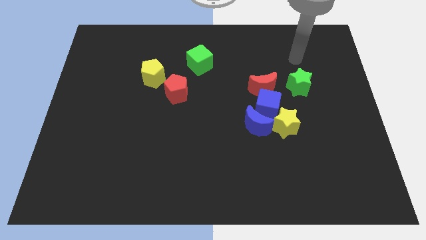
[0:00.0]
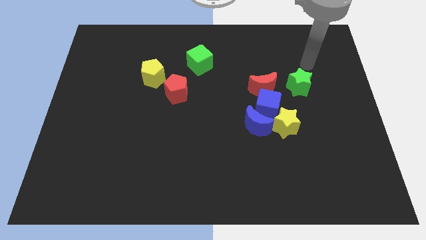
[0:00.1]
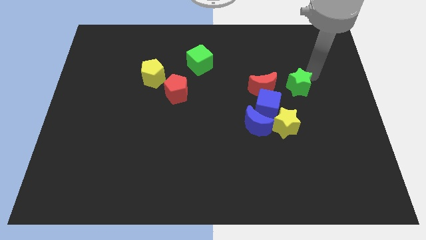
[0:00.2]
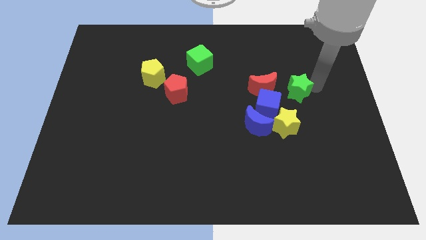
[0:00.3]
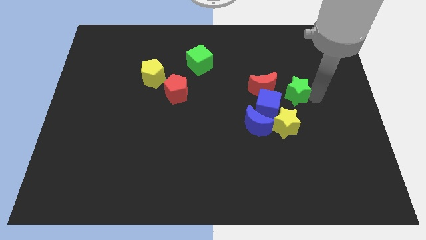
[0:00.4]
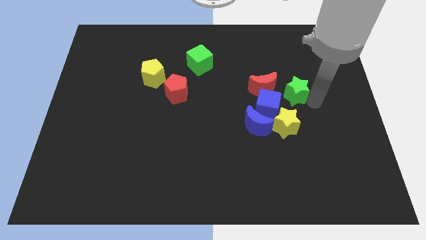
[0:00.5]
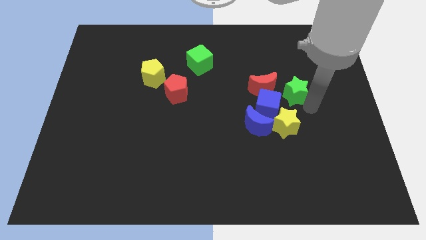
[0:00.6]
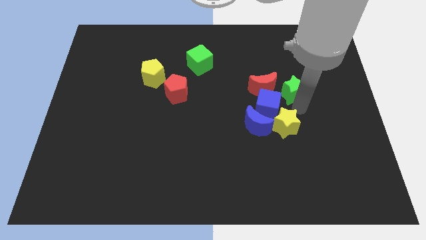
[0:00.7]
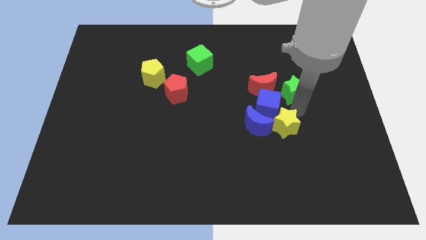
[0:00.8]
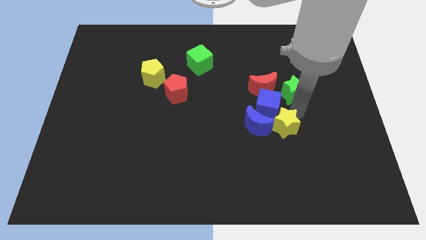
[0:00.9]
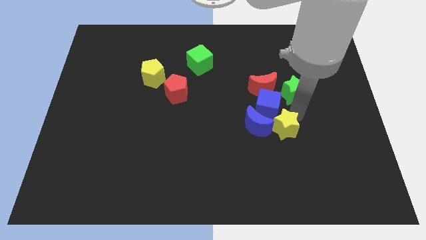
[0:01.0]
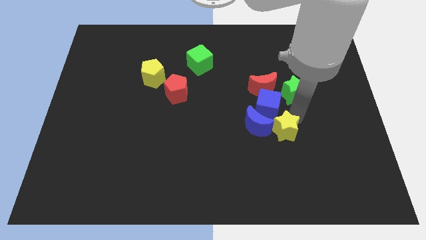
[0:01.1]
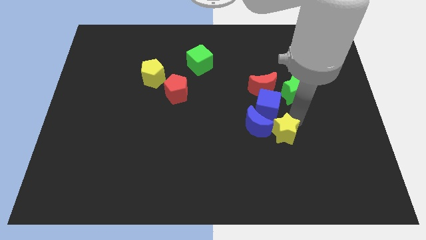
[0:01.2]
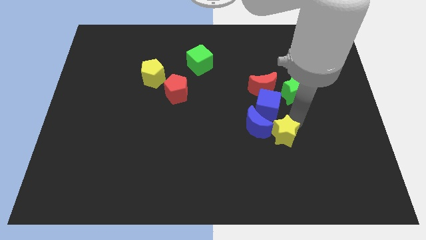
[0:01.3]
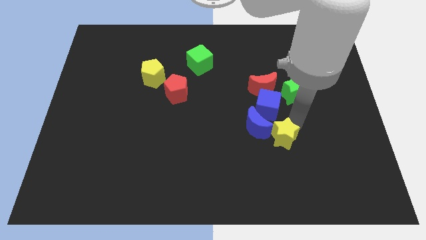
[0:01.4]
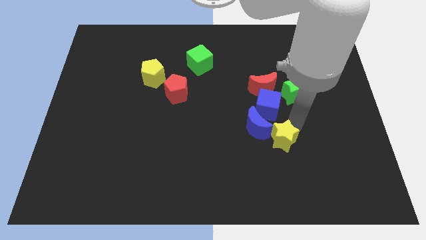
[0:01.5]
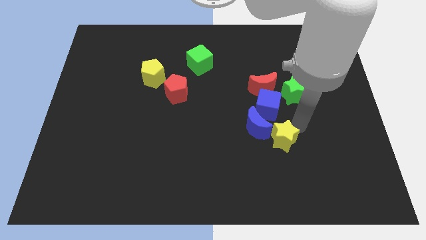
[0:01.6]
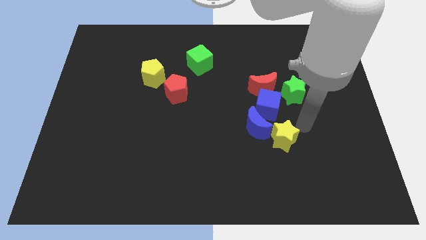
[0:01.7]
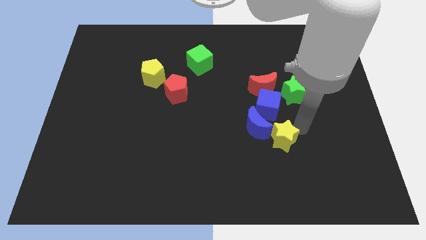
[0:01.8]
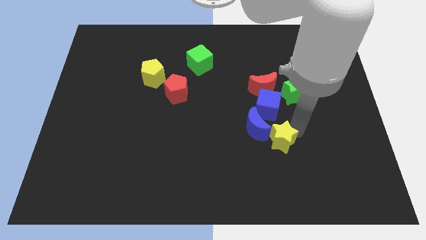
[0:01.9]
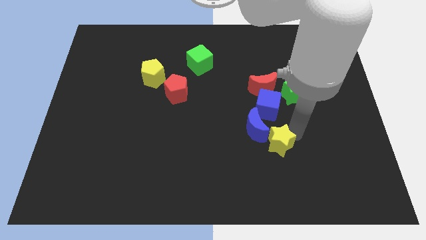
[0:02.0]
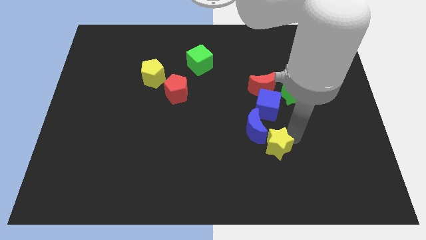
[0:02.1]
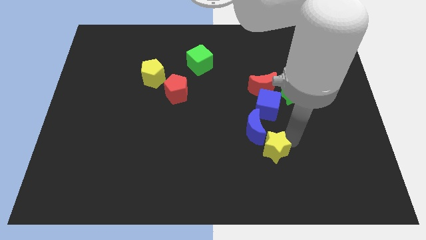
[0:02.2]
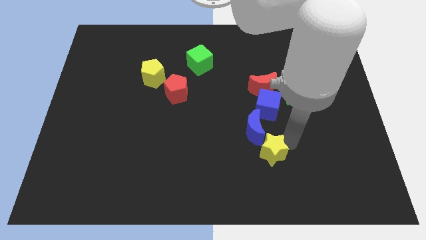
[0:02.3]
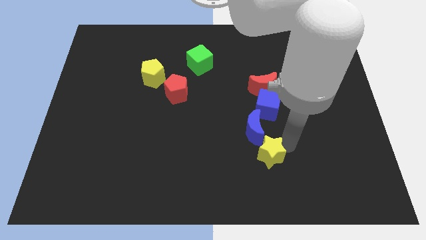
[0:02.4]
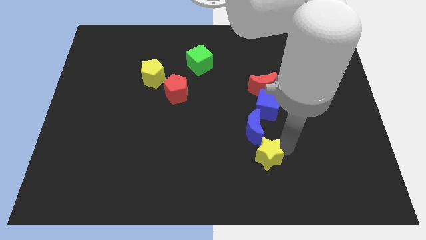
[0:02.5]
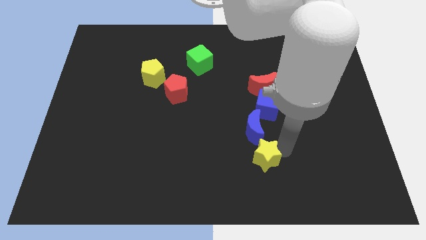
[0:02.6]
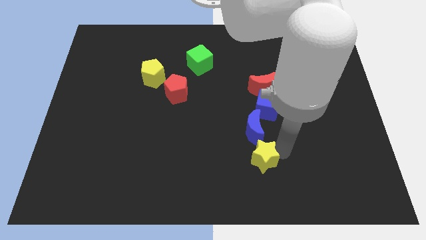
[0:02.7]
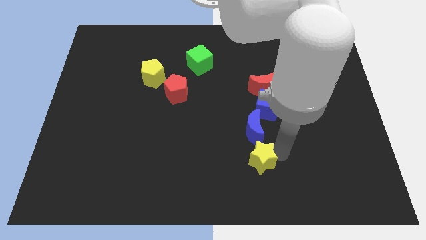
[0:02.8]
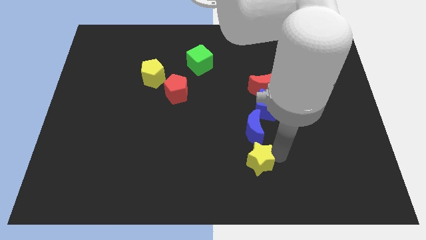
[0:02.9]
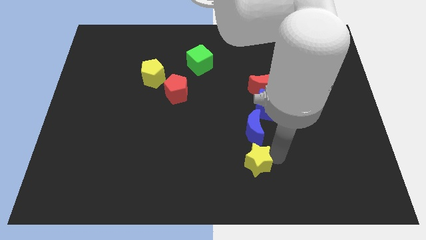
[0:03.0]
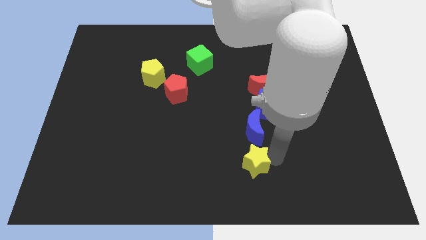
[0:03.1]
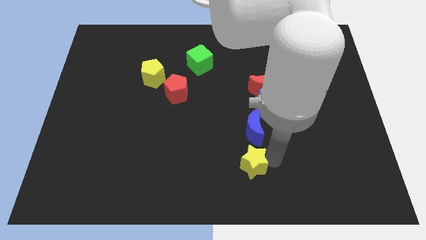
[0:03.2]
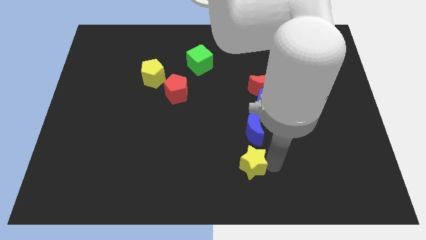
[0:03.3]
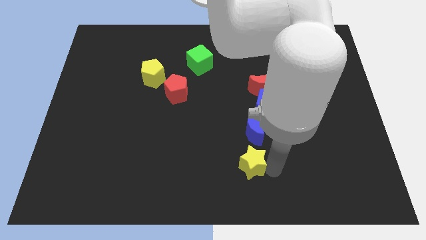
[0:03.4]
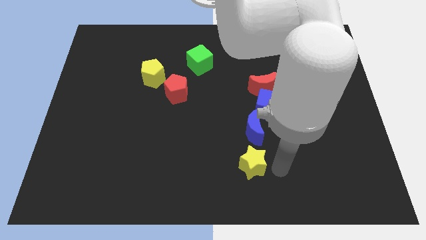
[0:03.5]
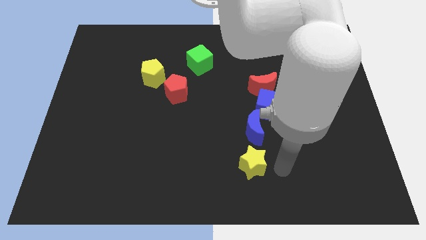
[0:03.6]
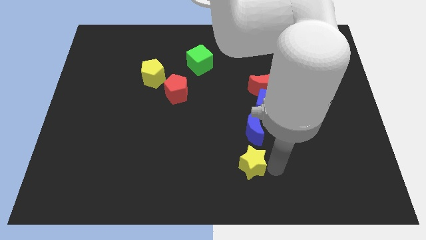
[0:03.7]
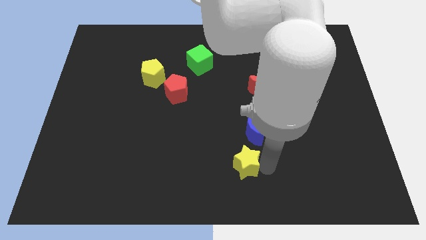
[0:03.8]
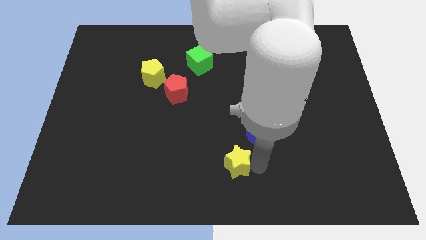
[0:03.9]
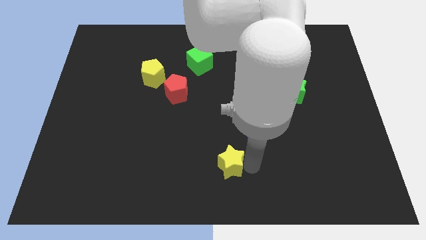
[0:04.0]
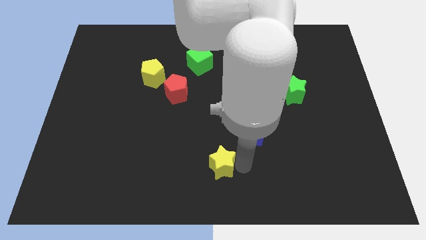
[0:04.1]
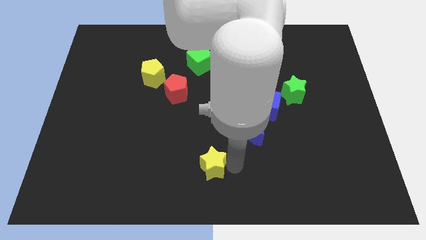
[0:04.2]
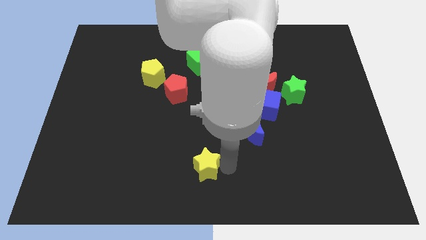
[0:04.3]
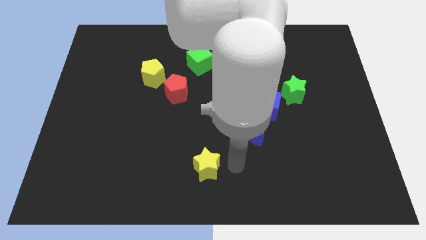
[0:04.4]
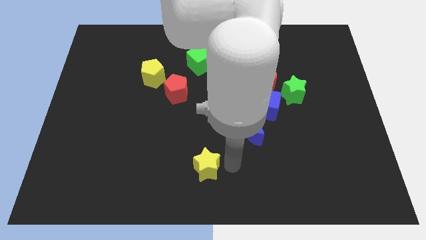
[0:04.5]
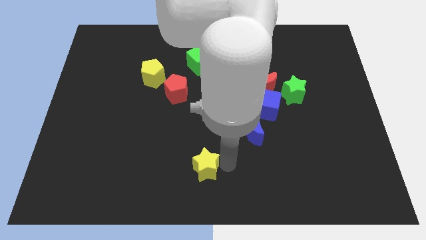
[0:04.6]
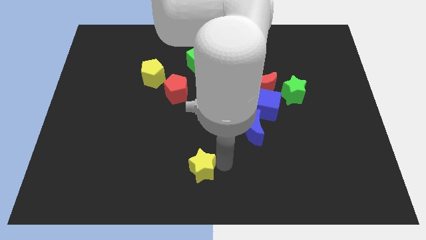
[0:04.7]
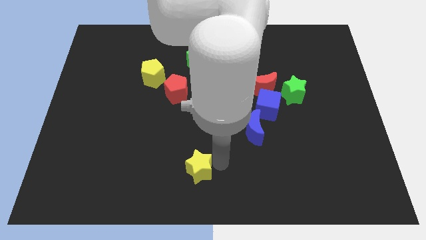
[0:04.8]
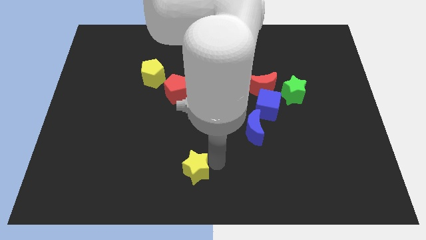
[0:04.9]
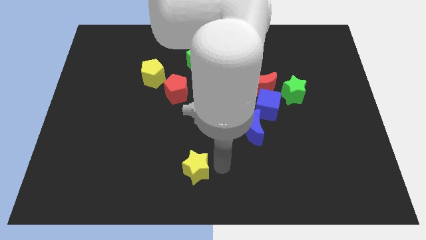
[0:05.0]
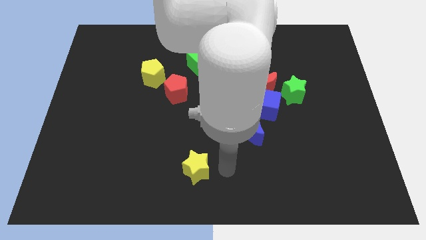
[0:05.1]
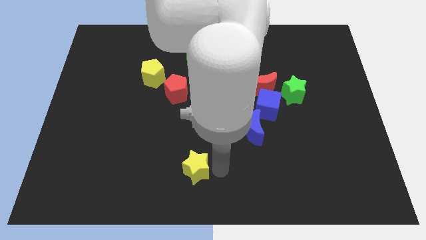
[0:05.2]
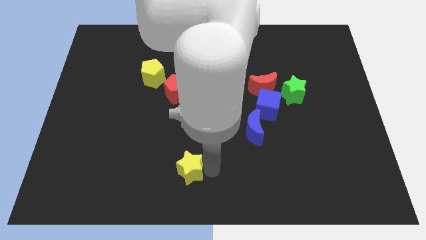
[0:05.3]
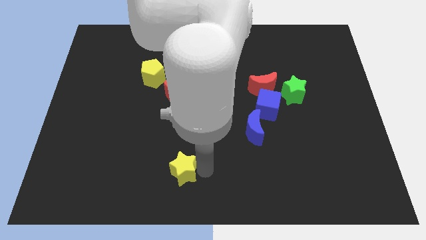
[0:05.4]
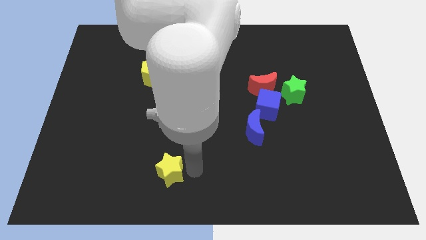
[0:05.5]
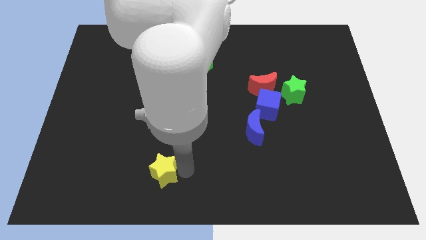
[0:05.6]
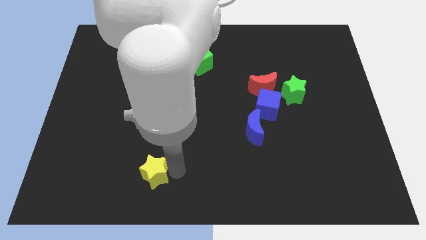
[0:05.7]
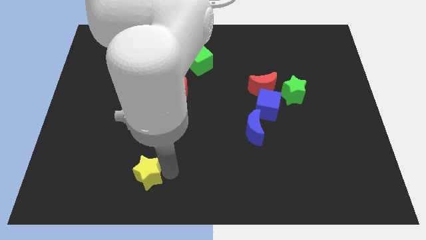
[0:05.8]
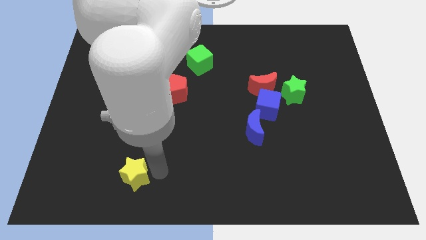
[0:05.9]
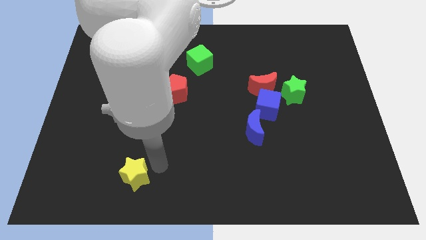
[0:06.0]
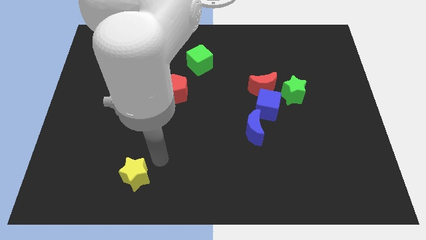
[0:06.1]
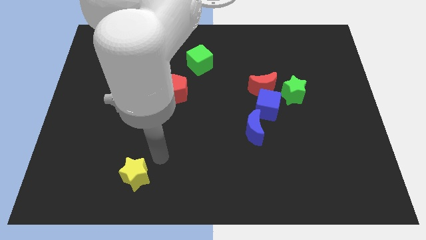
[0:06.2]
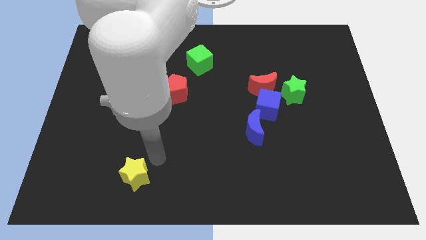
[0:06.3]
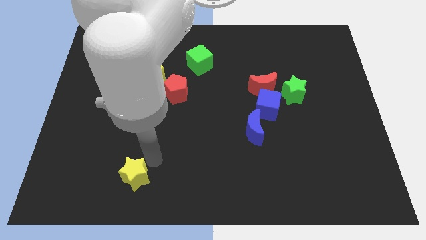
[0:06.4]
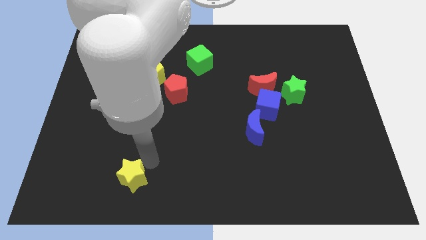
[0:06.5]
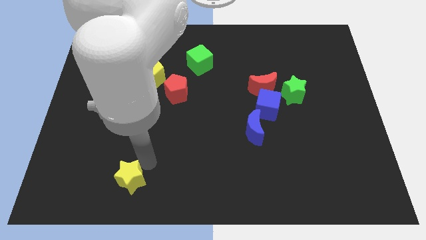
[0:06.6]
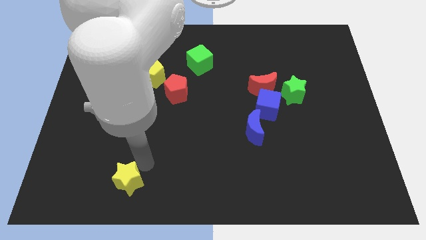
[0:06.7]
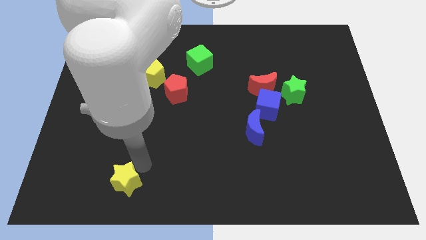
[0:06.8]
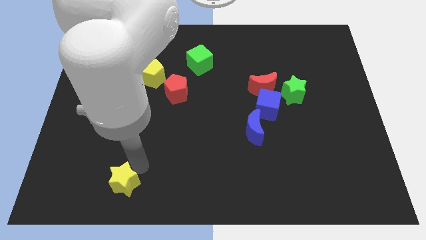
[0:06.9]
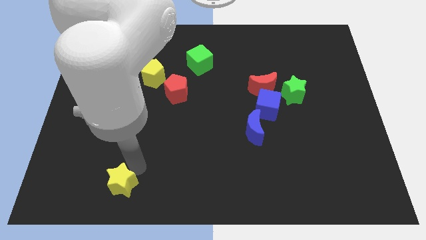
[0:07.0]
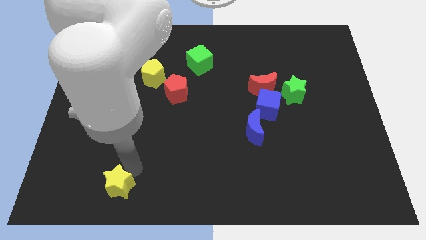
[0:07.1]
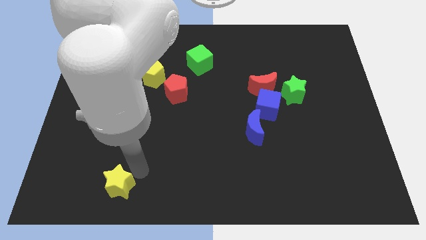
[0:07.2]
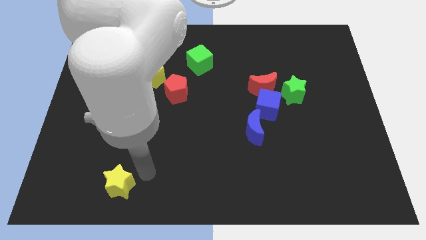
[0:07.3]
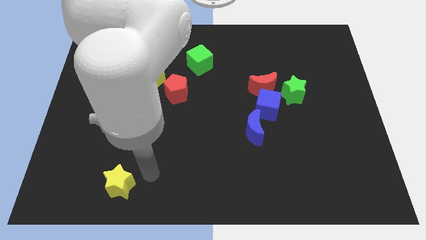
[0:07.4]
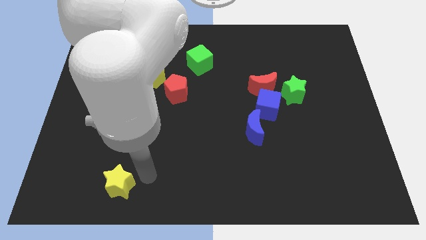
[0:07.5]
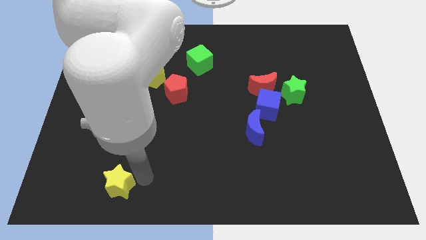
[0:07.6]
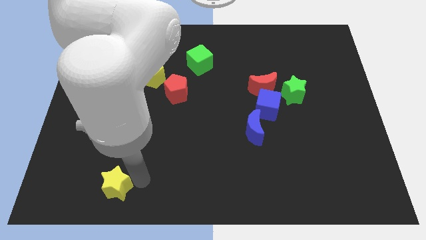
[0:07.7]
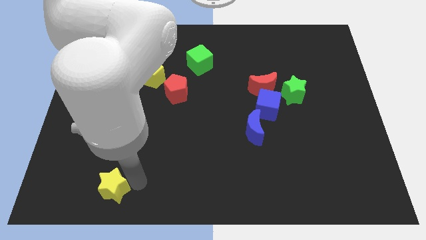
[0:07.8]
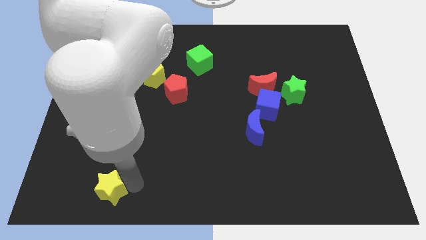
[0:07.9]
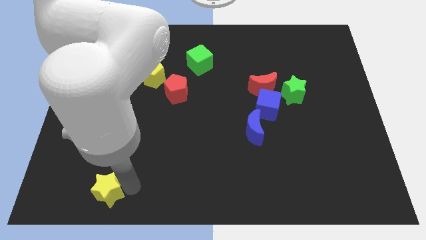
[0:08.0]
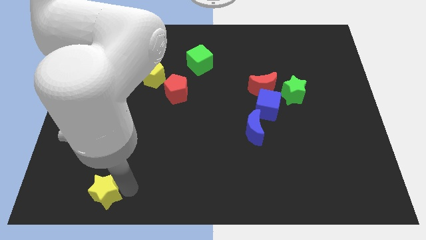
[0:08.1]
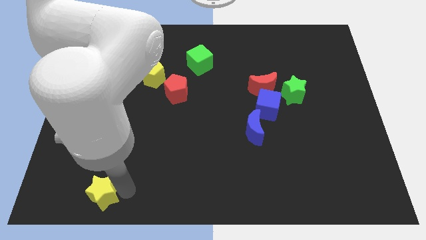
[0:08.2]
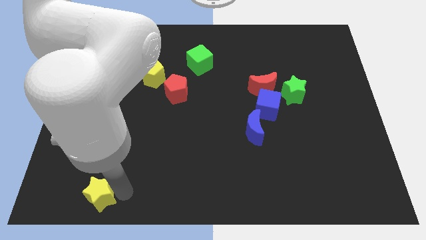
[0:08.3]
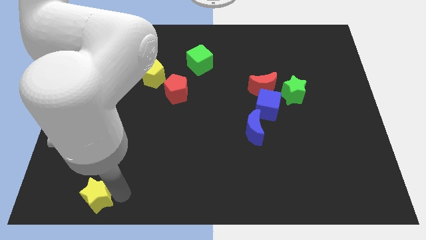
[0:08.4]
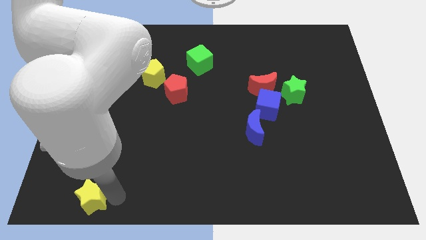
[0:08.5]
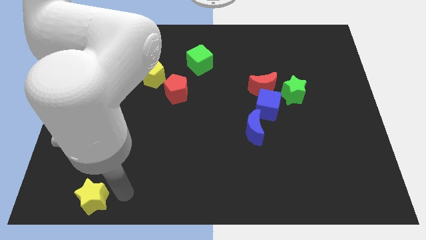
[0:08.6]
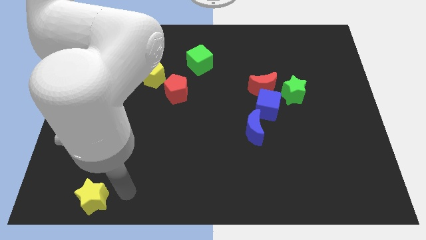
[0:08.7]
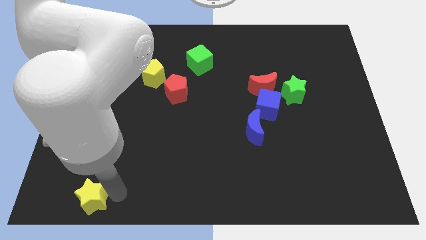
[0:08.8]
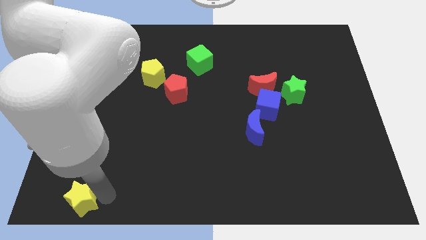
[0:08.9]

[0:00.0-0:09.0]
slide the yellow star to the lower left corner
